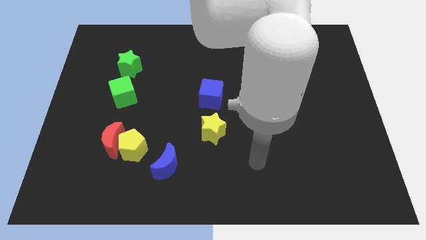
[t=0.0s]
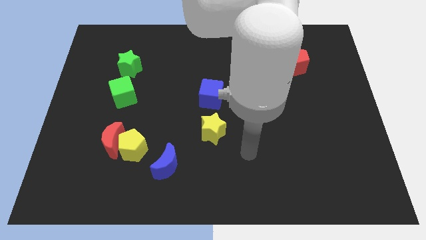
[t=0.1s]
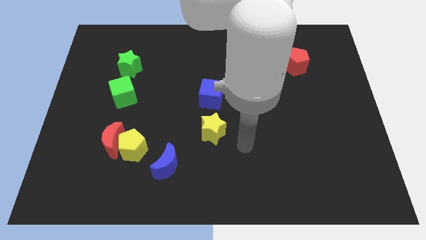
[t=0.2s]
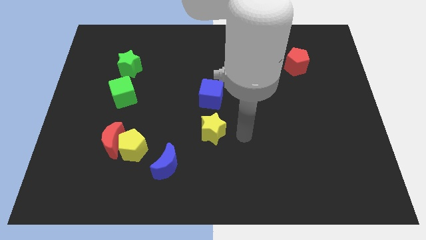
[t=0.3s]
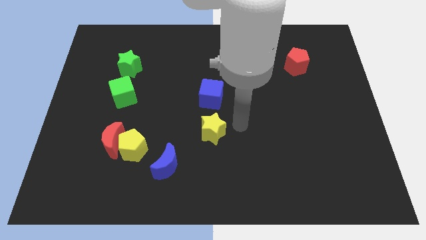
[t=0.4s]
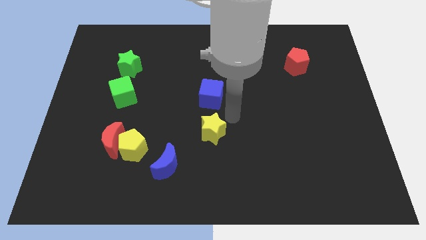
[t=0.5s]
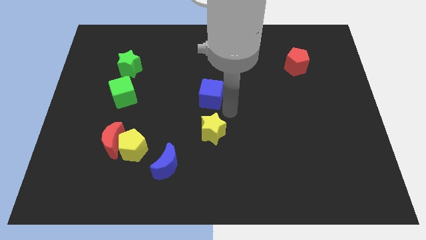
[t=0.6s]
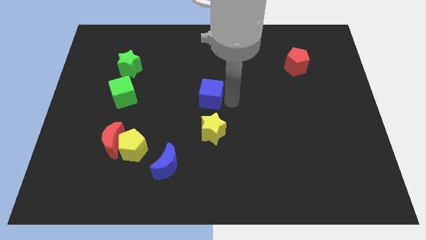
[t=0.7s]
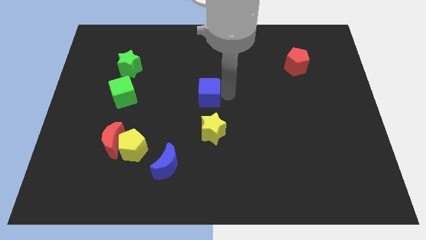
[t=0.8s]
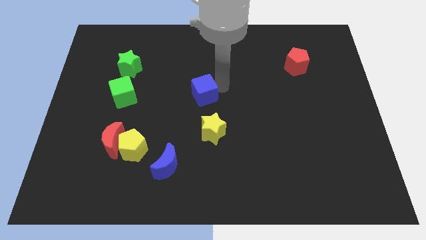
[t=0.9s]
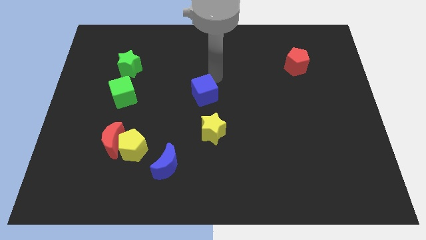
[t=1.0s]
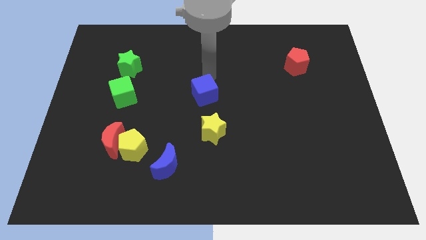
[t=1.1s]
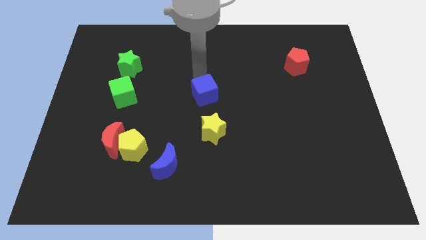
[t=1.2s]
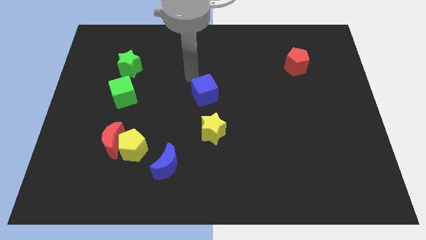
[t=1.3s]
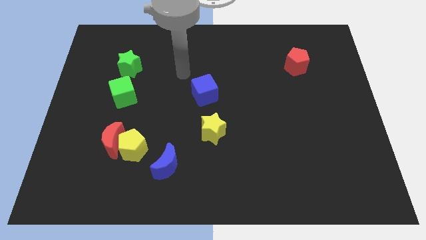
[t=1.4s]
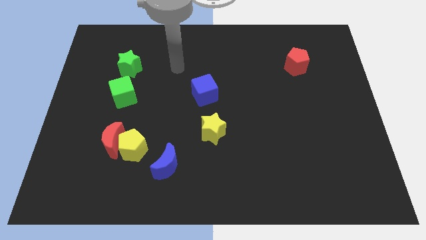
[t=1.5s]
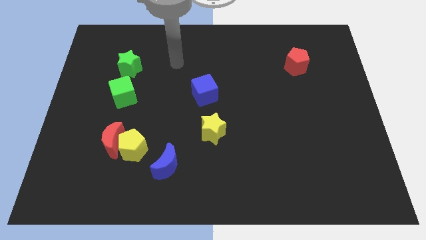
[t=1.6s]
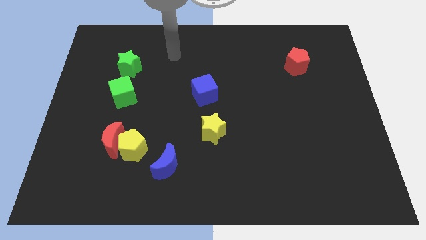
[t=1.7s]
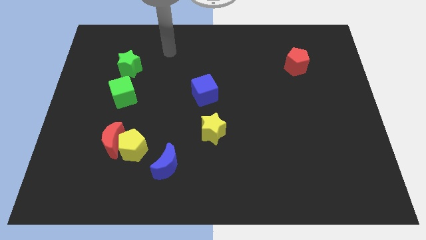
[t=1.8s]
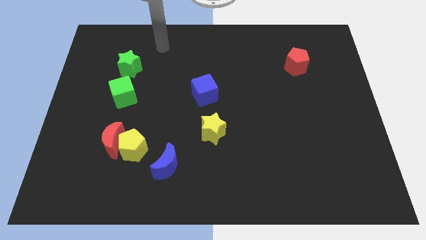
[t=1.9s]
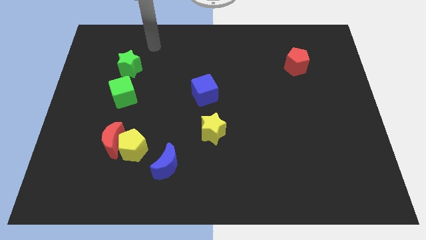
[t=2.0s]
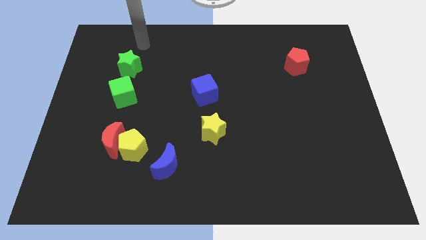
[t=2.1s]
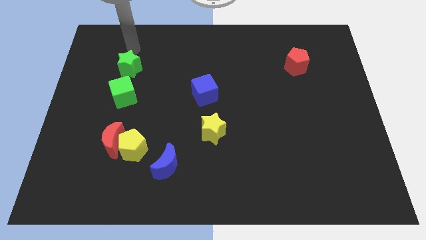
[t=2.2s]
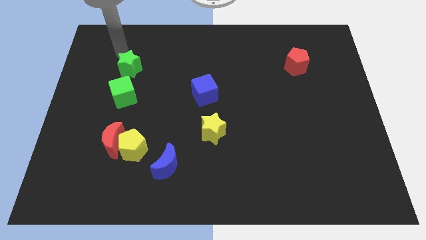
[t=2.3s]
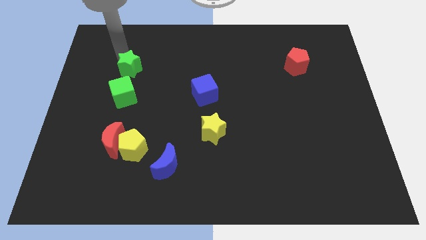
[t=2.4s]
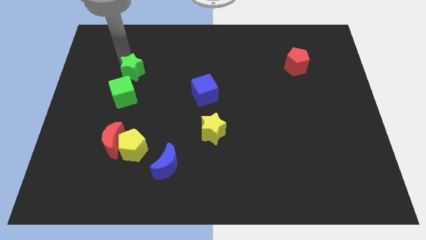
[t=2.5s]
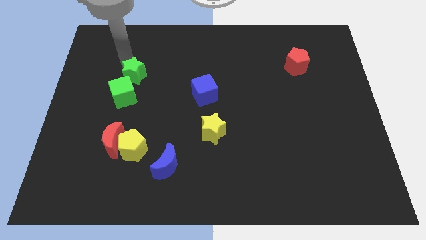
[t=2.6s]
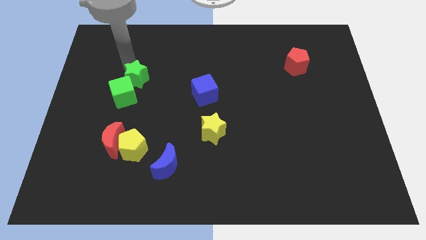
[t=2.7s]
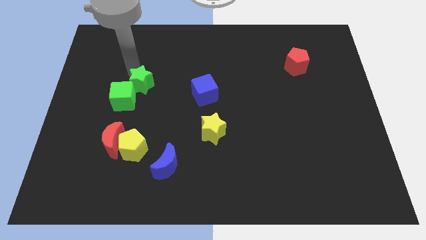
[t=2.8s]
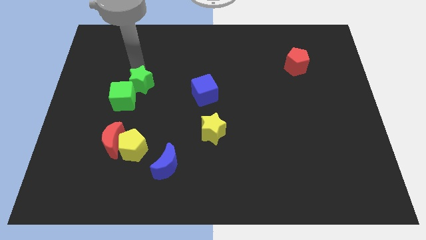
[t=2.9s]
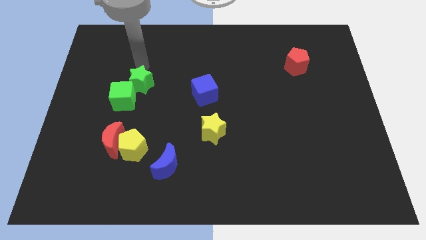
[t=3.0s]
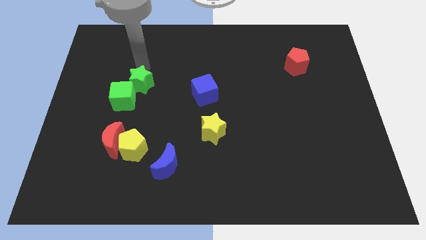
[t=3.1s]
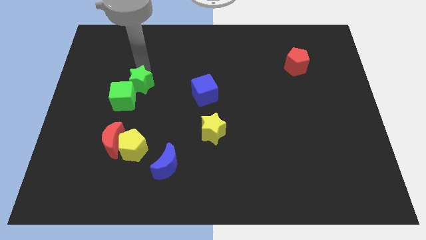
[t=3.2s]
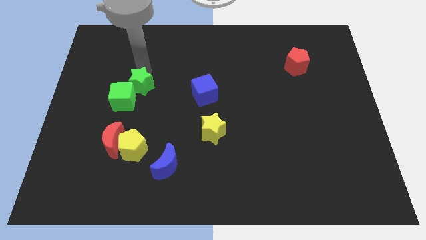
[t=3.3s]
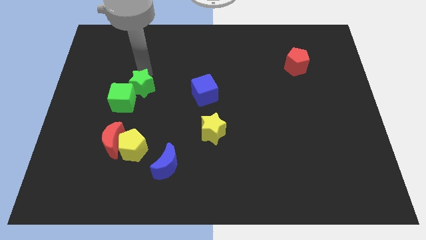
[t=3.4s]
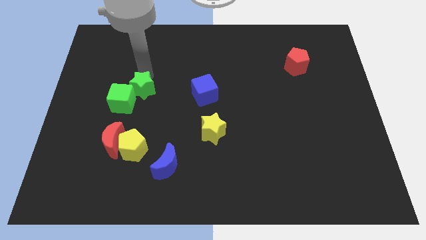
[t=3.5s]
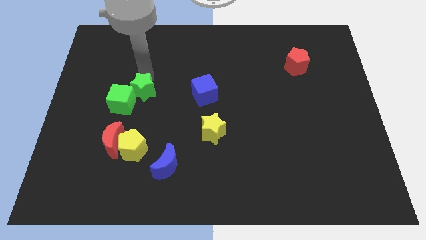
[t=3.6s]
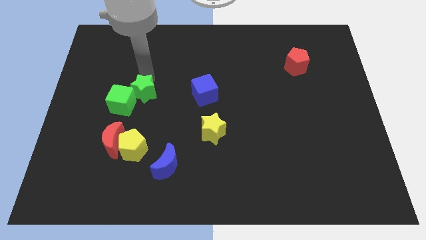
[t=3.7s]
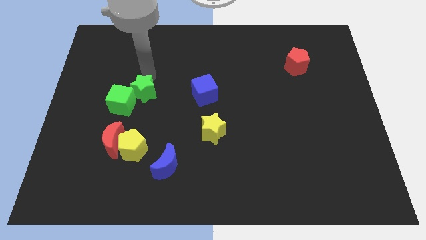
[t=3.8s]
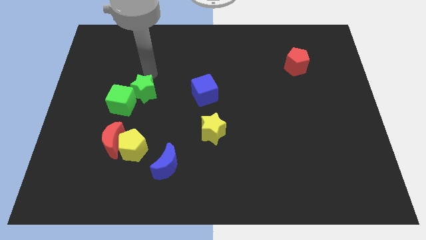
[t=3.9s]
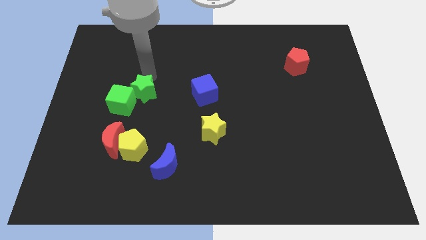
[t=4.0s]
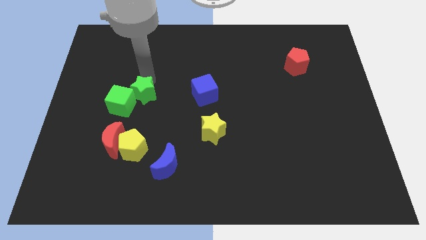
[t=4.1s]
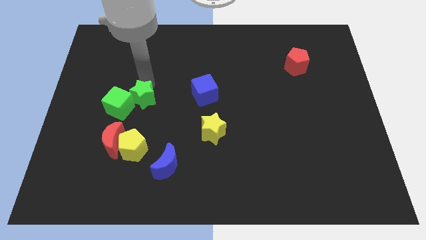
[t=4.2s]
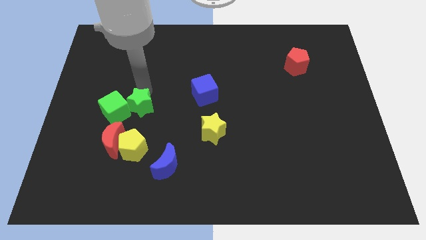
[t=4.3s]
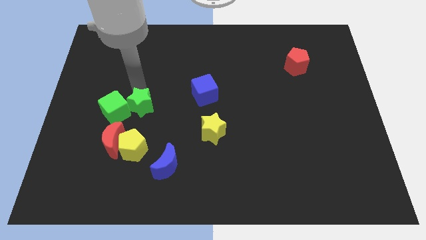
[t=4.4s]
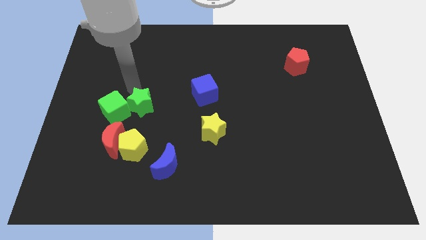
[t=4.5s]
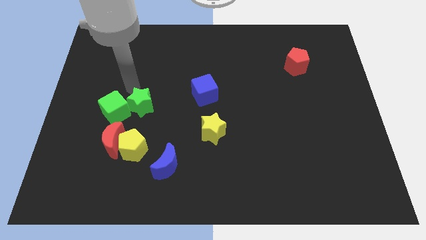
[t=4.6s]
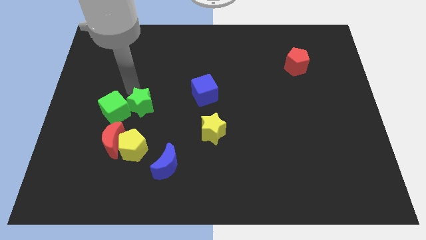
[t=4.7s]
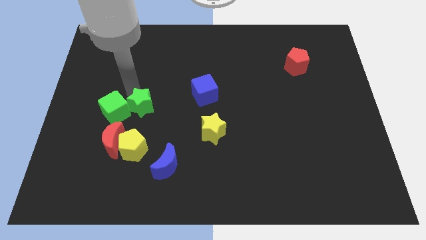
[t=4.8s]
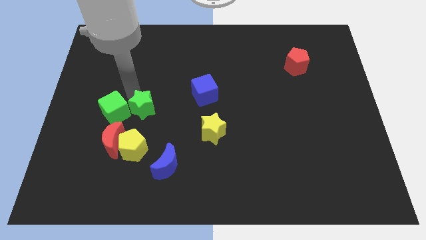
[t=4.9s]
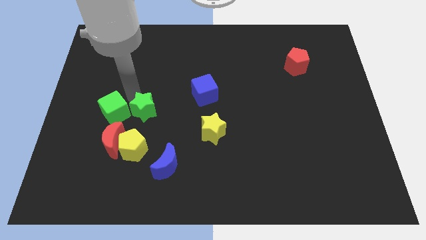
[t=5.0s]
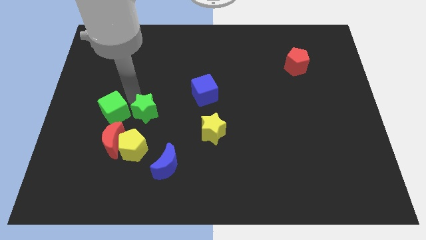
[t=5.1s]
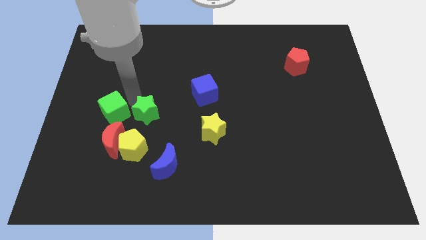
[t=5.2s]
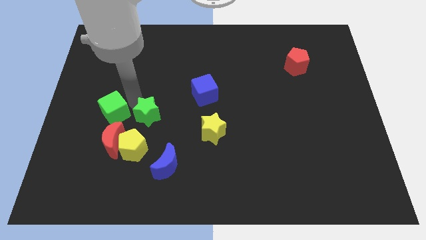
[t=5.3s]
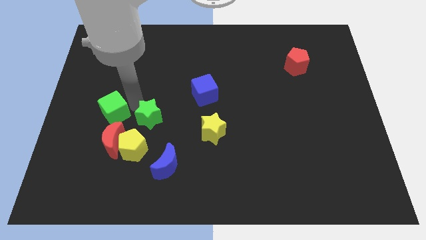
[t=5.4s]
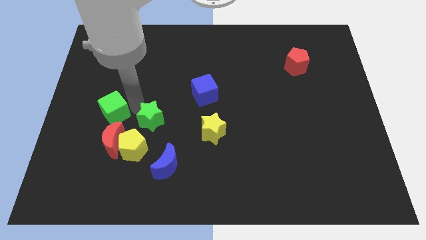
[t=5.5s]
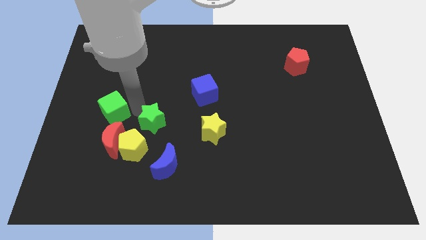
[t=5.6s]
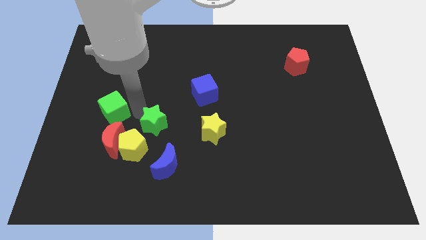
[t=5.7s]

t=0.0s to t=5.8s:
put the green star right of the red moon

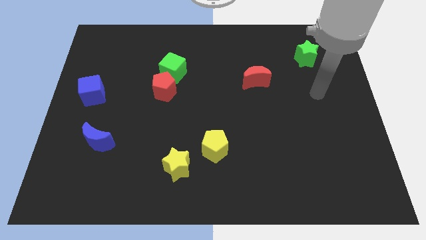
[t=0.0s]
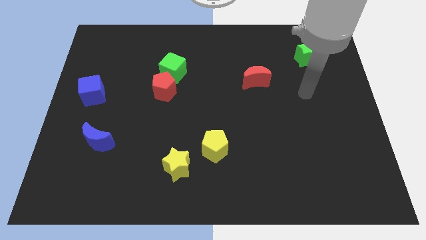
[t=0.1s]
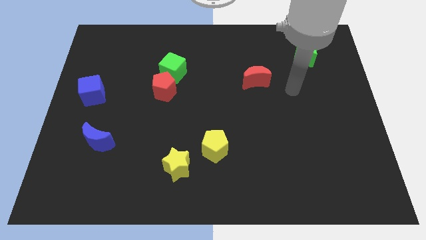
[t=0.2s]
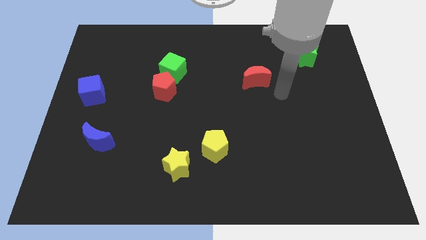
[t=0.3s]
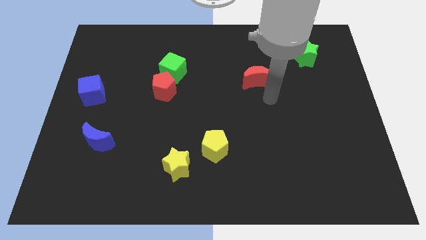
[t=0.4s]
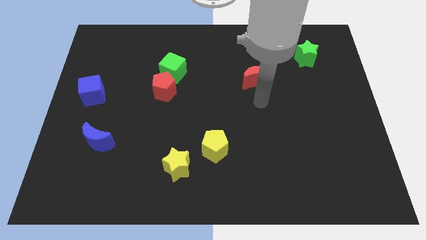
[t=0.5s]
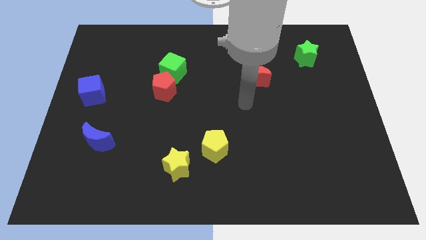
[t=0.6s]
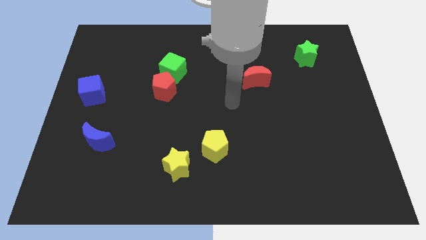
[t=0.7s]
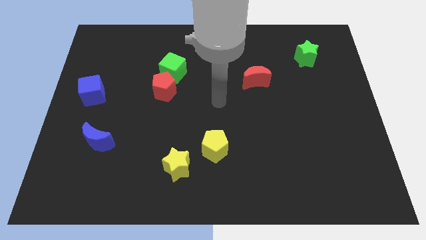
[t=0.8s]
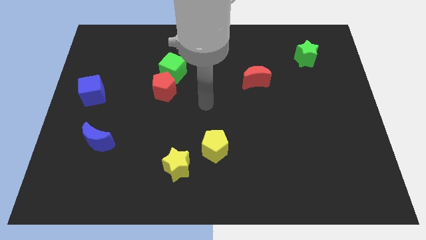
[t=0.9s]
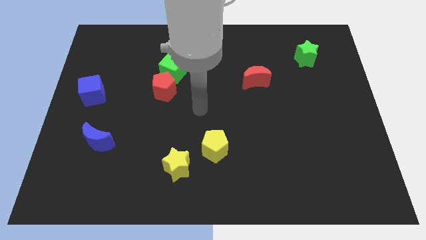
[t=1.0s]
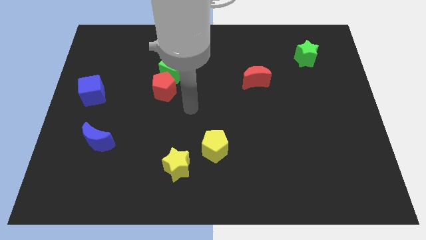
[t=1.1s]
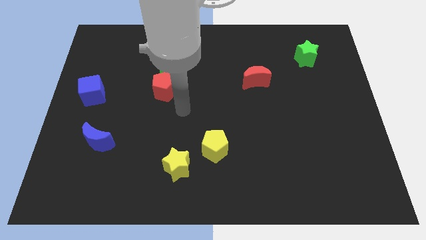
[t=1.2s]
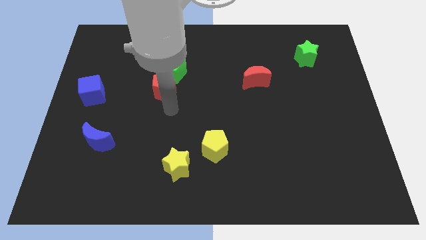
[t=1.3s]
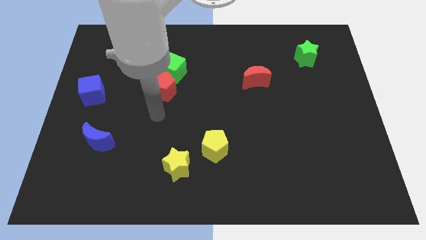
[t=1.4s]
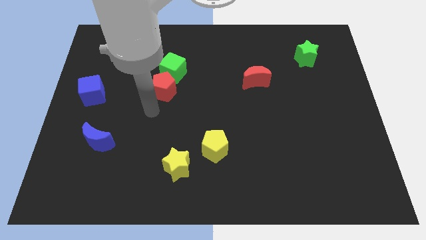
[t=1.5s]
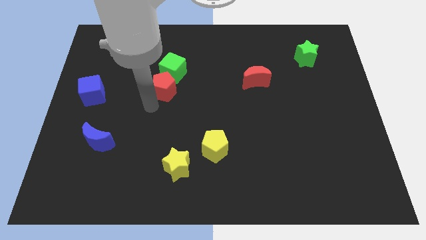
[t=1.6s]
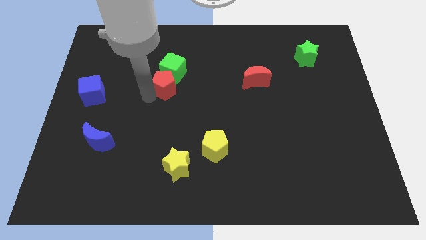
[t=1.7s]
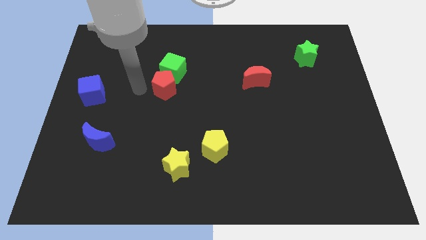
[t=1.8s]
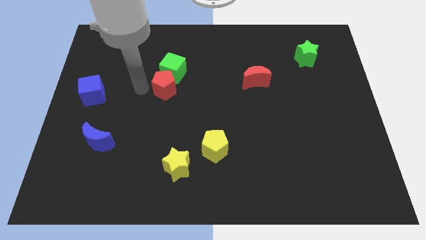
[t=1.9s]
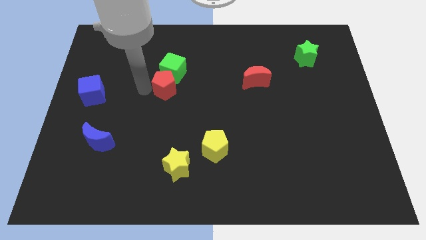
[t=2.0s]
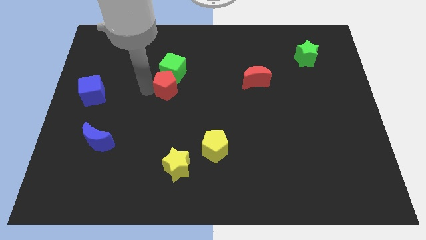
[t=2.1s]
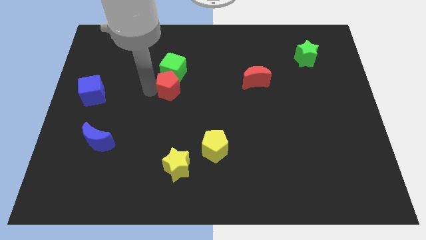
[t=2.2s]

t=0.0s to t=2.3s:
push the red pentagon to the bottom right of the green cube
